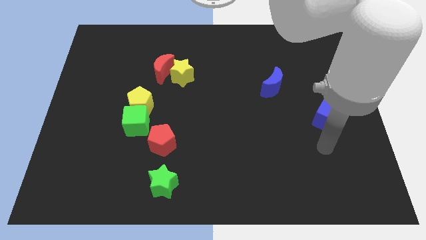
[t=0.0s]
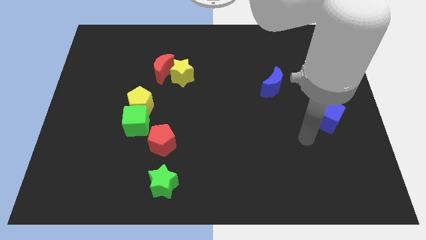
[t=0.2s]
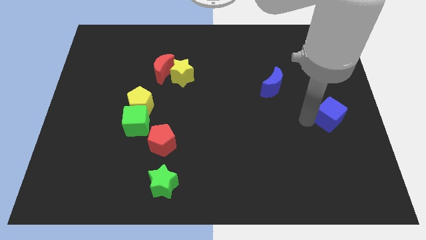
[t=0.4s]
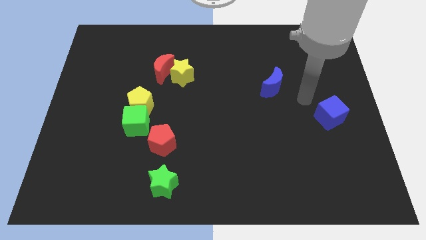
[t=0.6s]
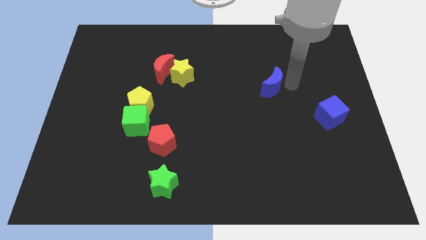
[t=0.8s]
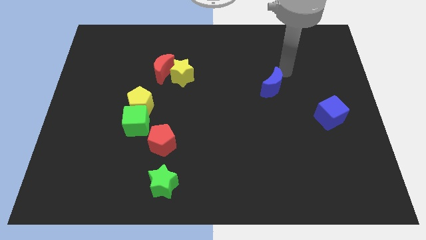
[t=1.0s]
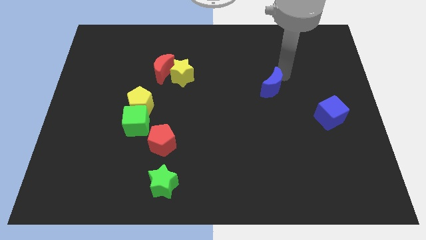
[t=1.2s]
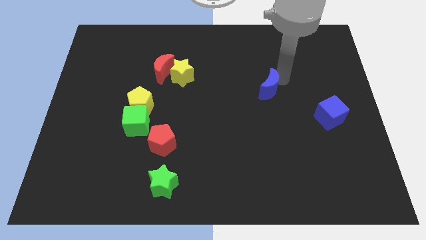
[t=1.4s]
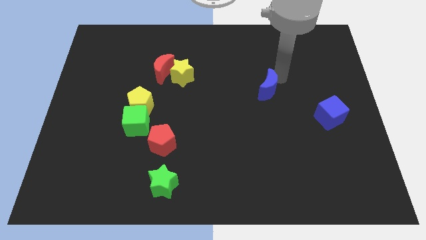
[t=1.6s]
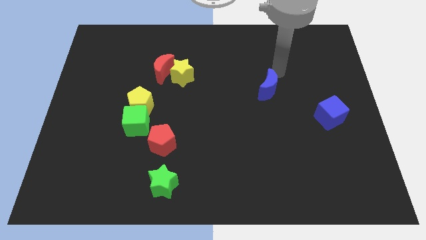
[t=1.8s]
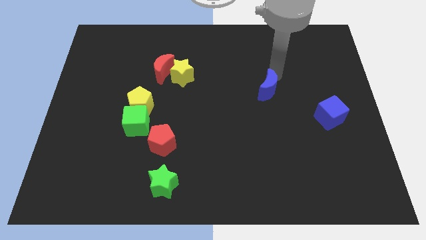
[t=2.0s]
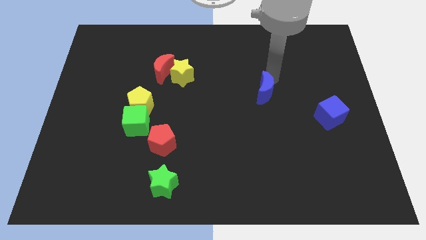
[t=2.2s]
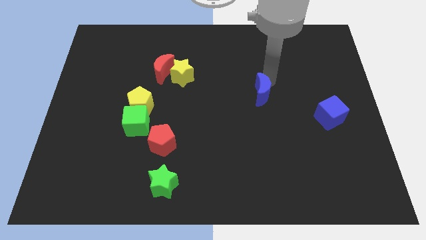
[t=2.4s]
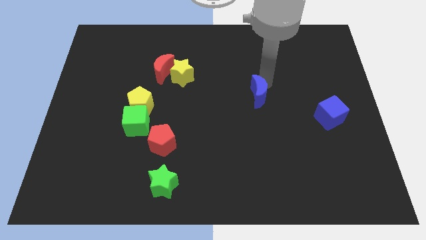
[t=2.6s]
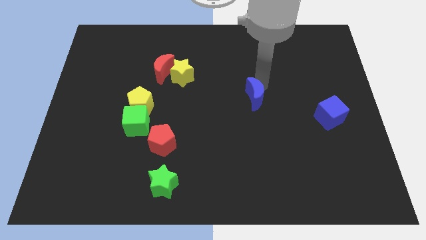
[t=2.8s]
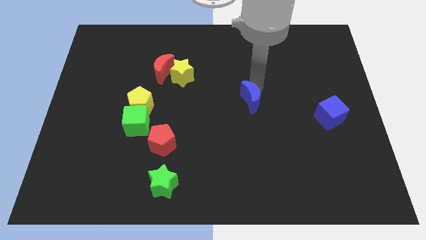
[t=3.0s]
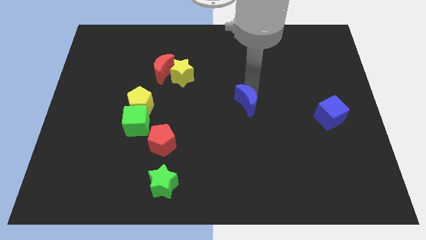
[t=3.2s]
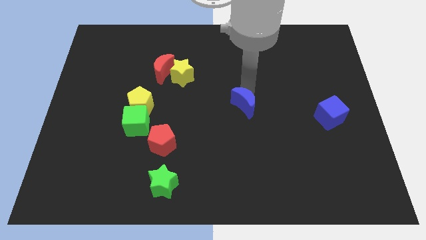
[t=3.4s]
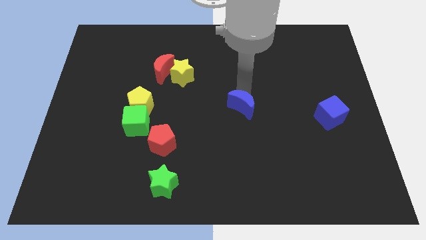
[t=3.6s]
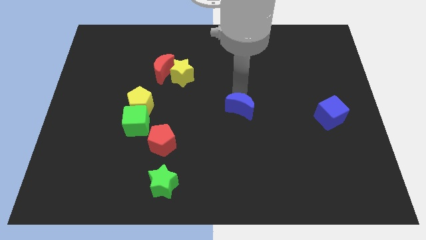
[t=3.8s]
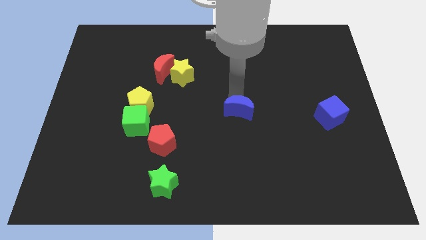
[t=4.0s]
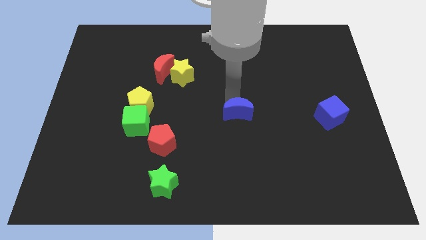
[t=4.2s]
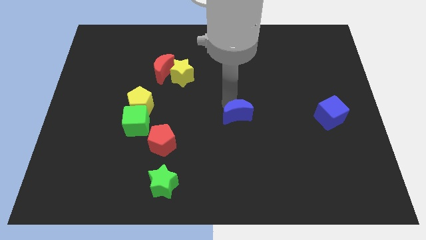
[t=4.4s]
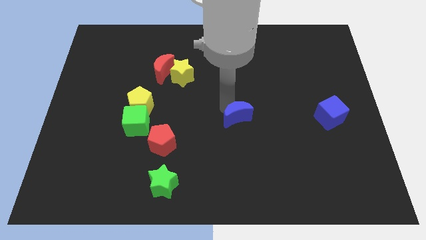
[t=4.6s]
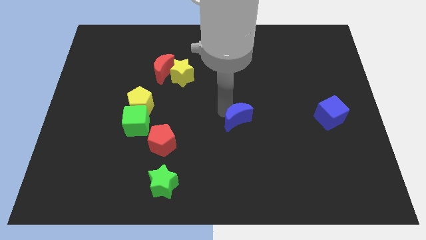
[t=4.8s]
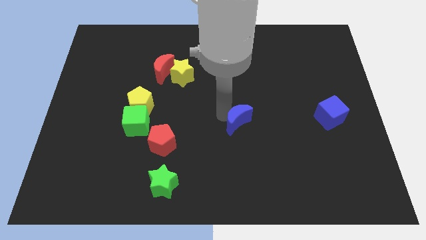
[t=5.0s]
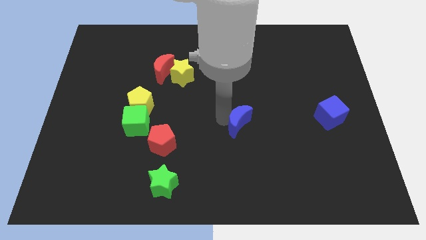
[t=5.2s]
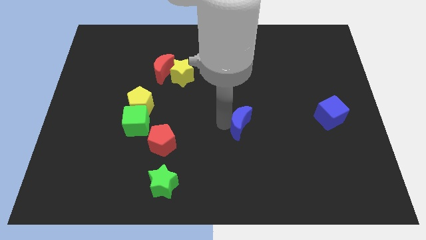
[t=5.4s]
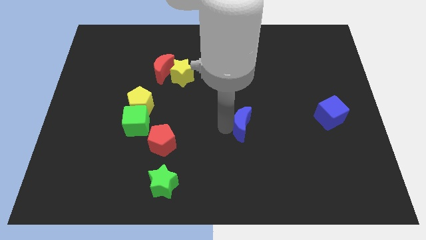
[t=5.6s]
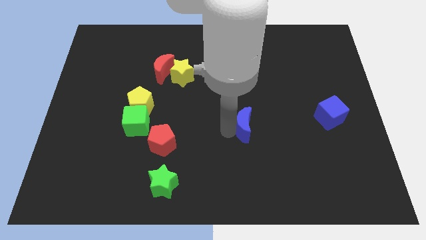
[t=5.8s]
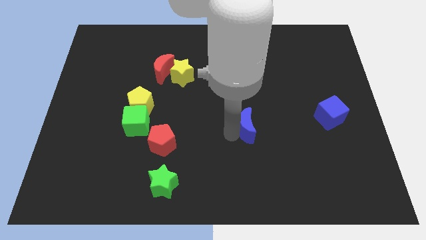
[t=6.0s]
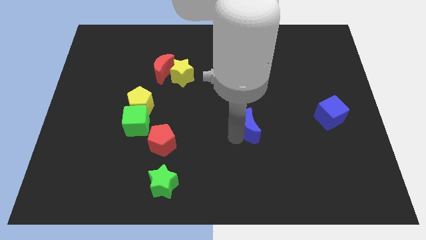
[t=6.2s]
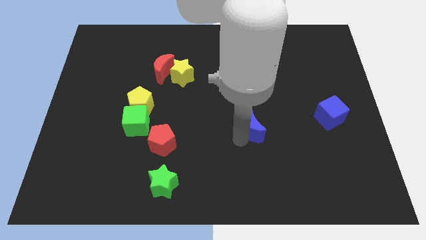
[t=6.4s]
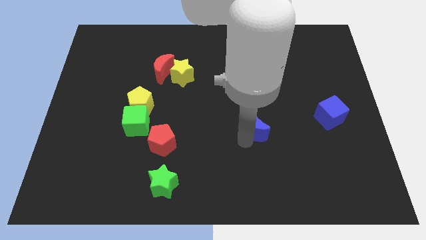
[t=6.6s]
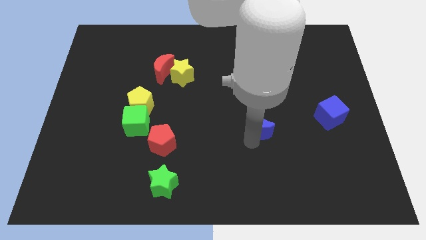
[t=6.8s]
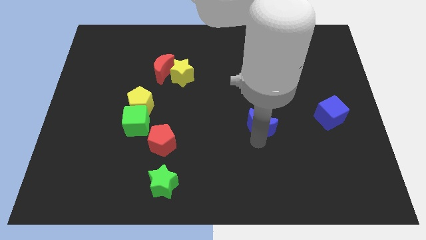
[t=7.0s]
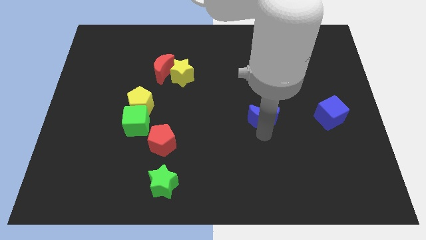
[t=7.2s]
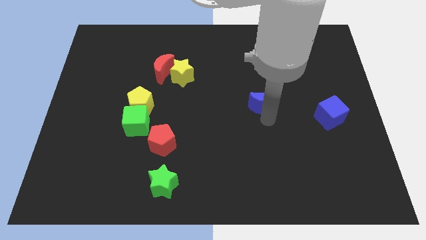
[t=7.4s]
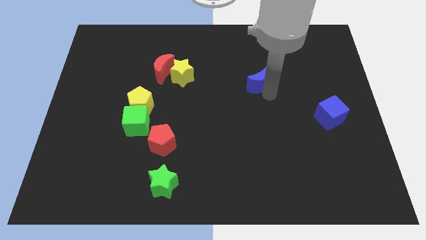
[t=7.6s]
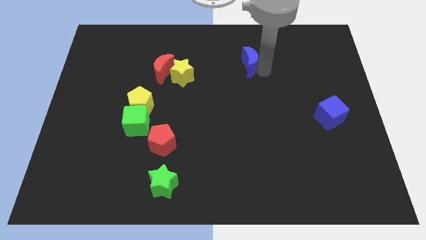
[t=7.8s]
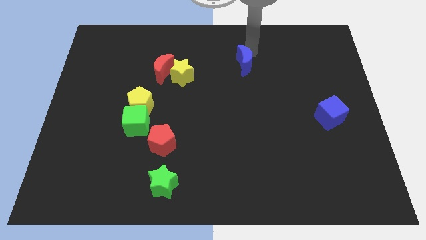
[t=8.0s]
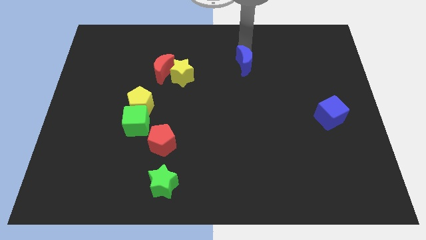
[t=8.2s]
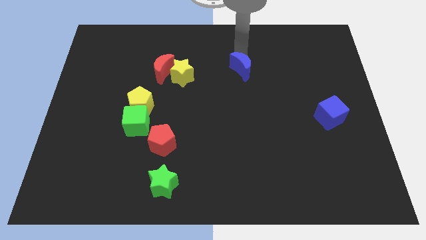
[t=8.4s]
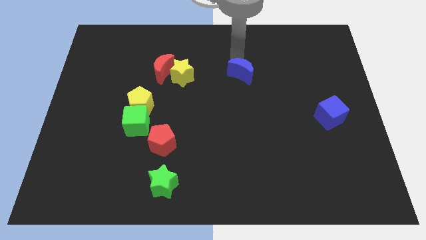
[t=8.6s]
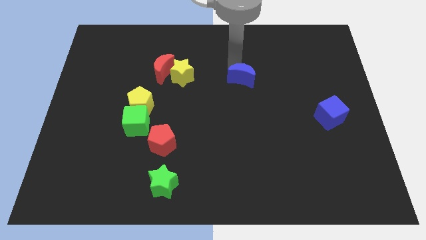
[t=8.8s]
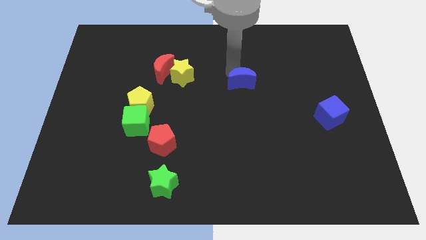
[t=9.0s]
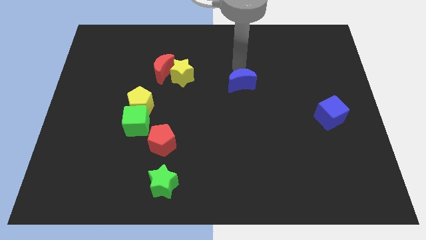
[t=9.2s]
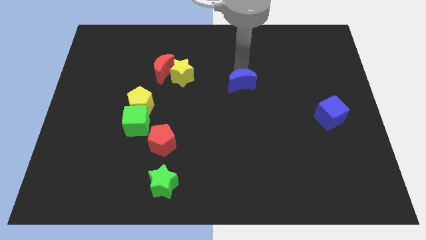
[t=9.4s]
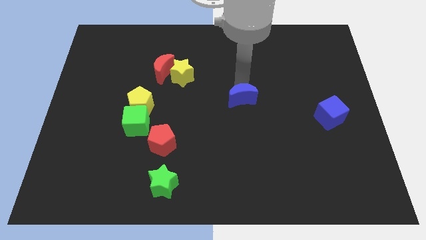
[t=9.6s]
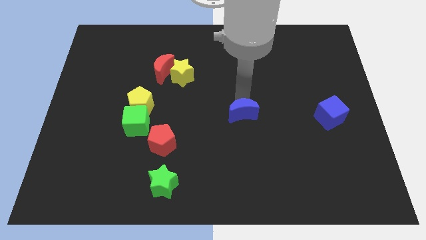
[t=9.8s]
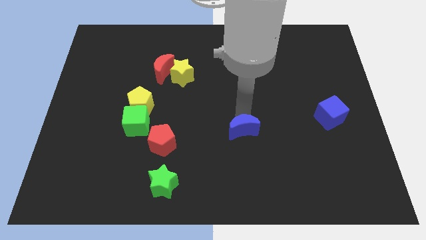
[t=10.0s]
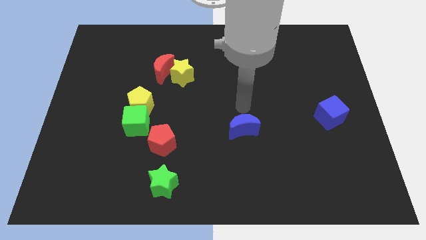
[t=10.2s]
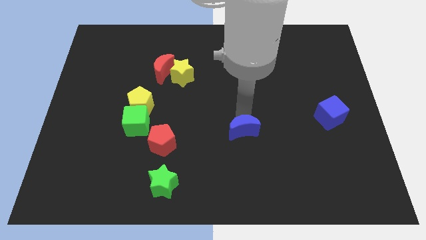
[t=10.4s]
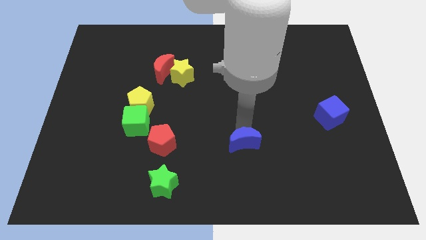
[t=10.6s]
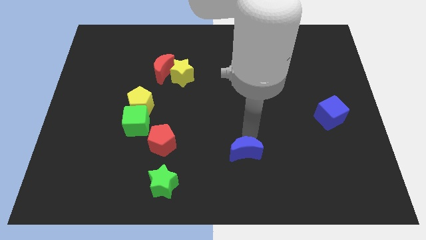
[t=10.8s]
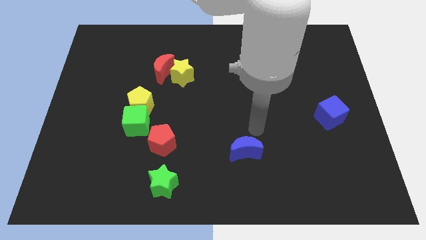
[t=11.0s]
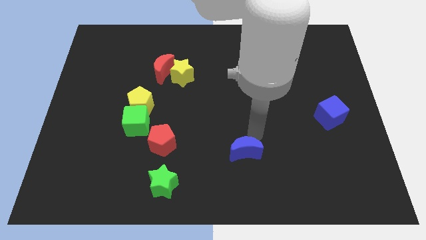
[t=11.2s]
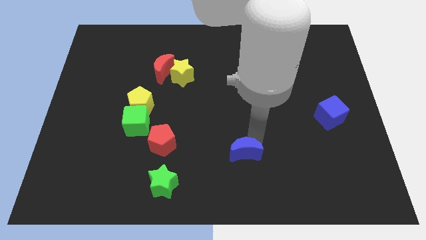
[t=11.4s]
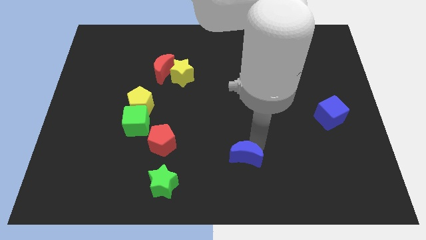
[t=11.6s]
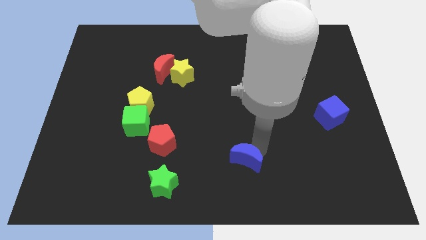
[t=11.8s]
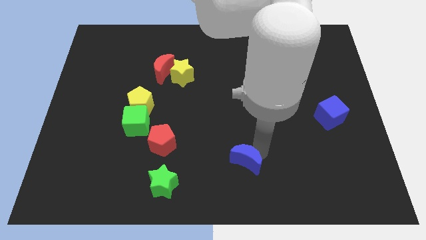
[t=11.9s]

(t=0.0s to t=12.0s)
push the blue moon to the bottom

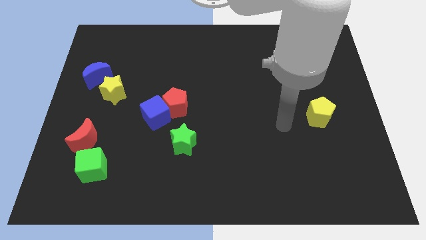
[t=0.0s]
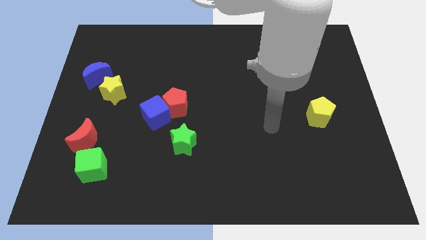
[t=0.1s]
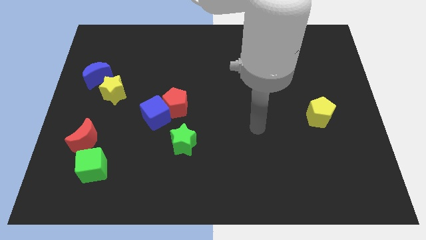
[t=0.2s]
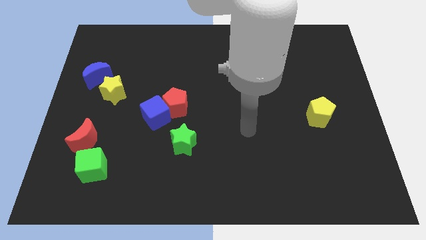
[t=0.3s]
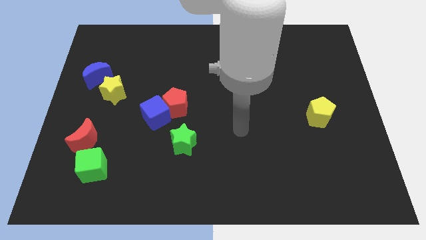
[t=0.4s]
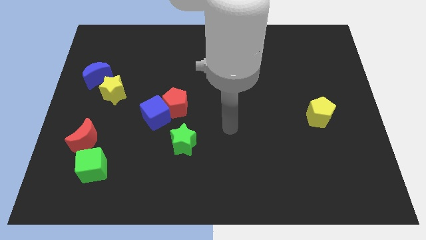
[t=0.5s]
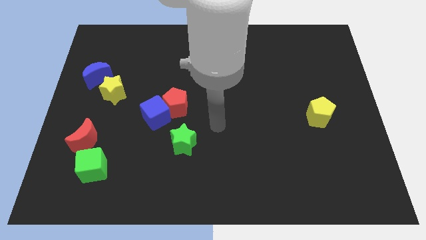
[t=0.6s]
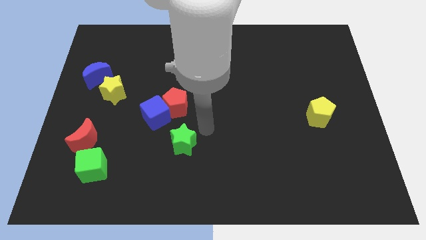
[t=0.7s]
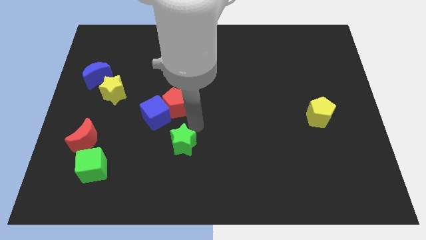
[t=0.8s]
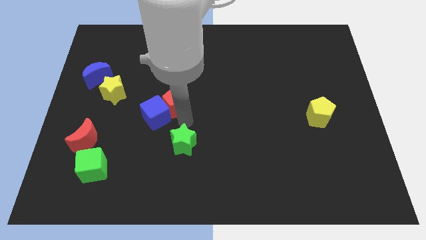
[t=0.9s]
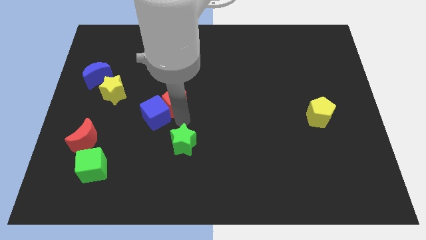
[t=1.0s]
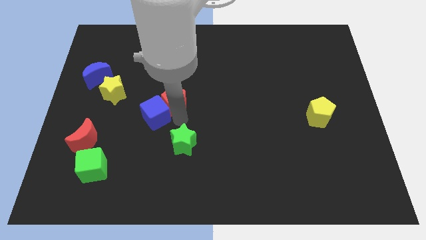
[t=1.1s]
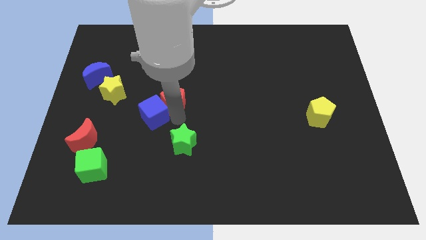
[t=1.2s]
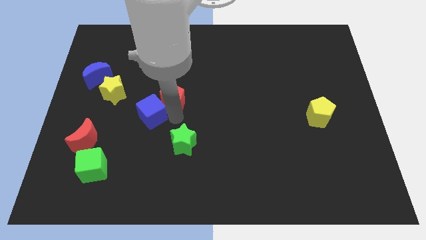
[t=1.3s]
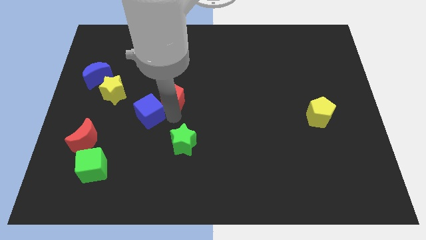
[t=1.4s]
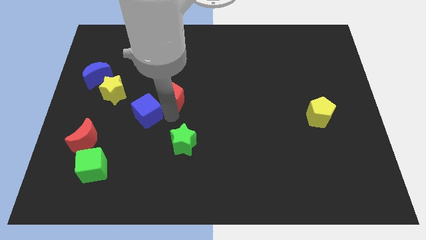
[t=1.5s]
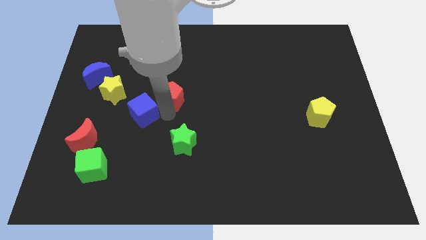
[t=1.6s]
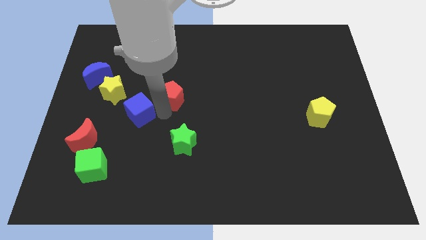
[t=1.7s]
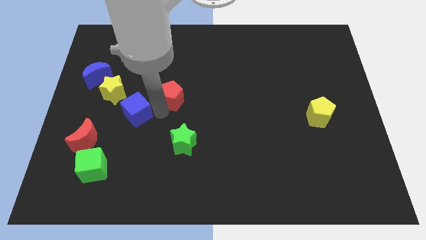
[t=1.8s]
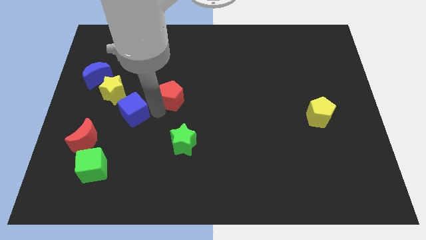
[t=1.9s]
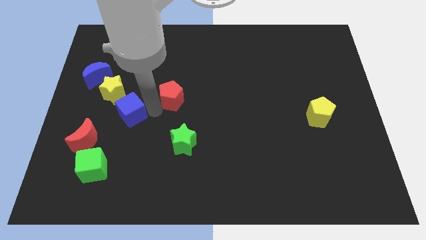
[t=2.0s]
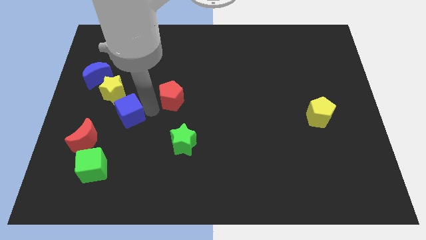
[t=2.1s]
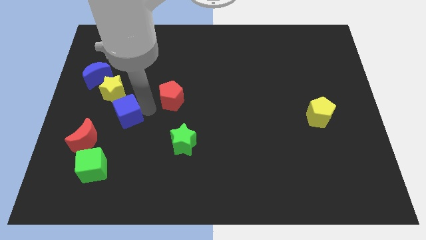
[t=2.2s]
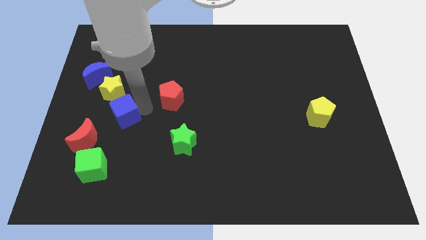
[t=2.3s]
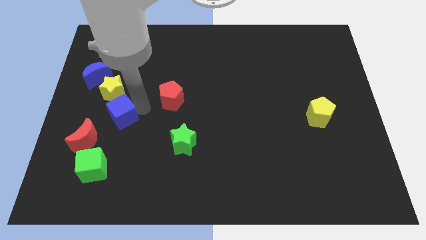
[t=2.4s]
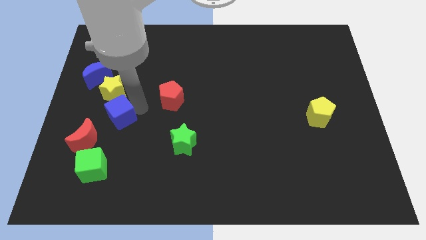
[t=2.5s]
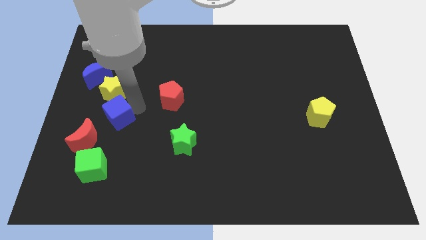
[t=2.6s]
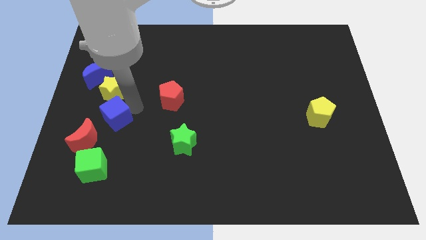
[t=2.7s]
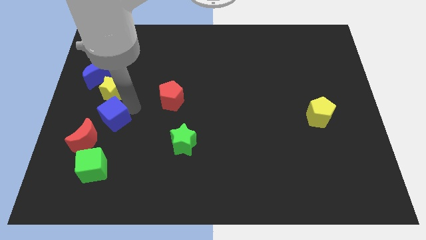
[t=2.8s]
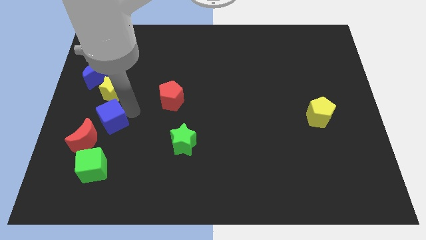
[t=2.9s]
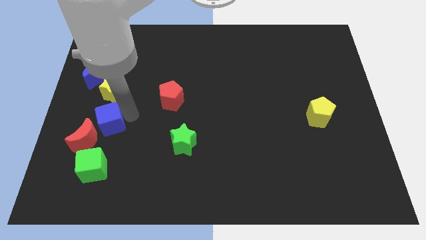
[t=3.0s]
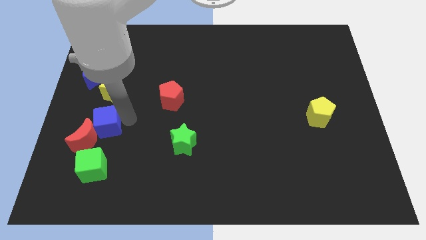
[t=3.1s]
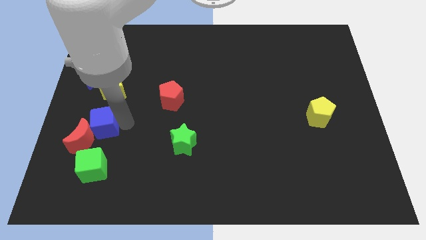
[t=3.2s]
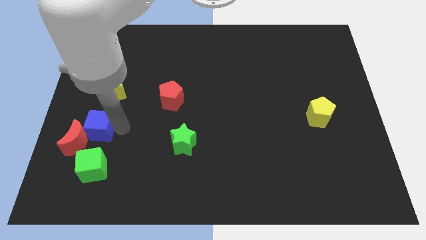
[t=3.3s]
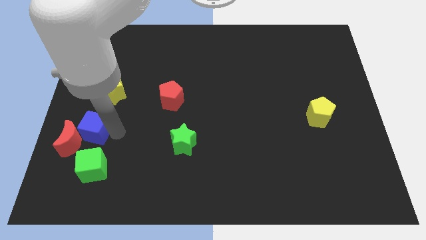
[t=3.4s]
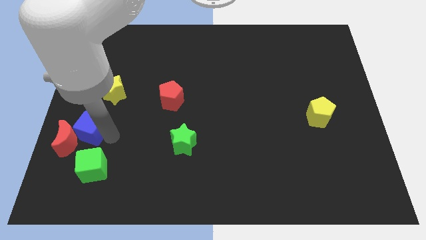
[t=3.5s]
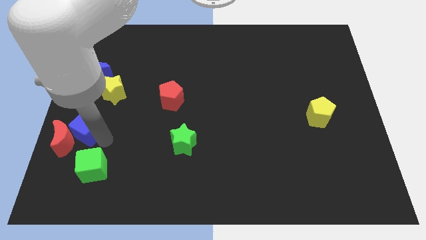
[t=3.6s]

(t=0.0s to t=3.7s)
slide the blue cube to the center left
